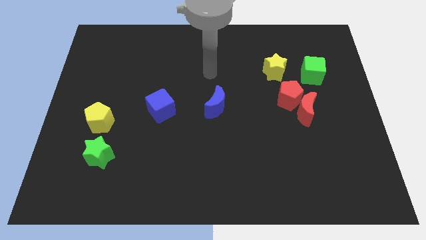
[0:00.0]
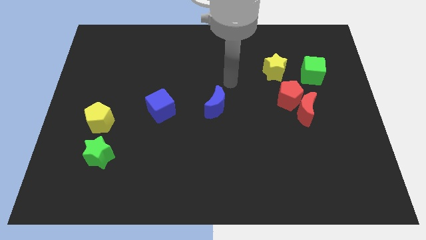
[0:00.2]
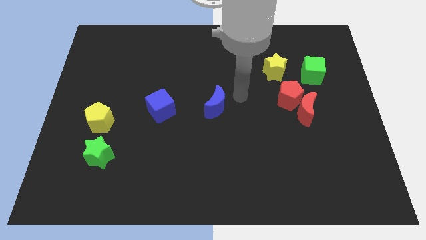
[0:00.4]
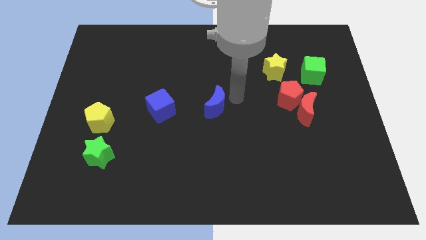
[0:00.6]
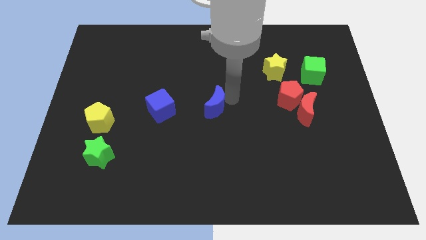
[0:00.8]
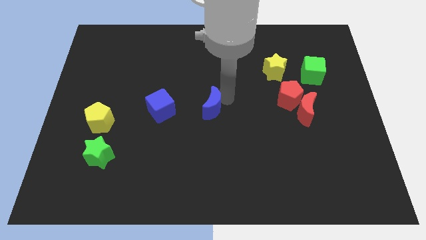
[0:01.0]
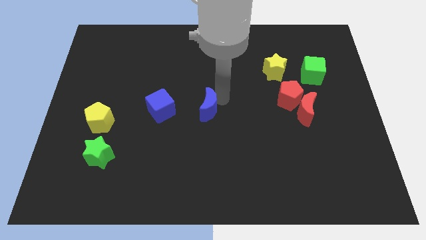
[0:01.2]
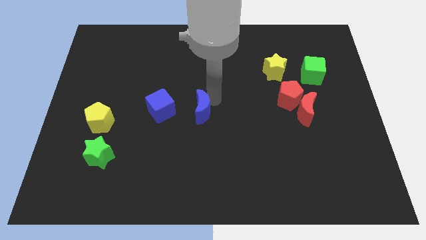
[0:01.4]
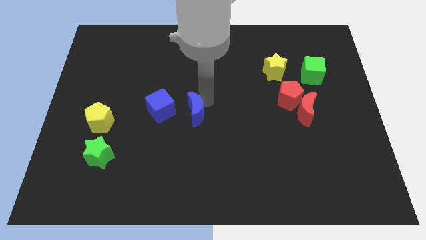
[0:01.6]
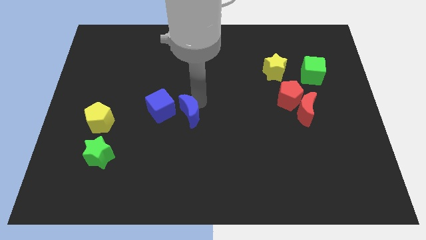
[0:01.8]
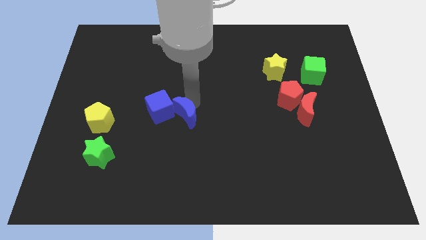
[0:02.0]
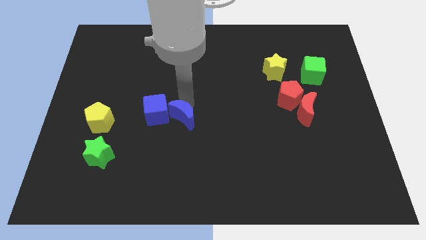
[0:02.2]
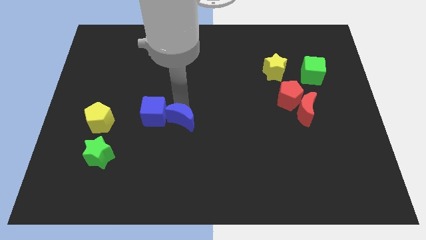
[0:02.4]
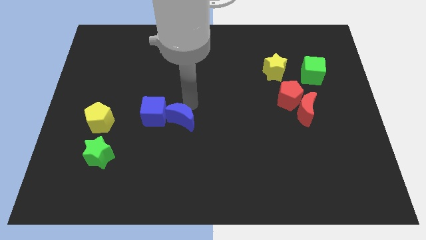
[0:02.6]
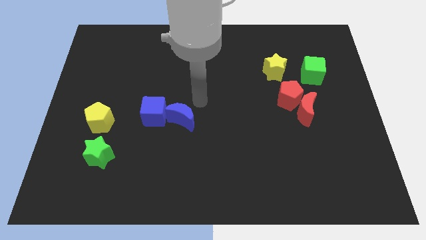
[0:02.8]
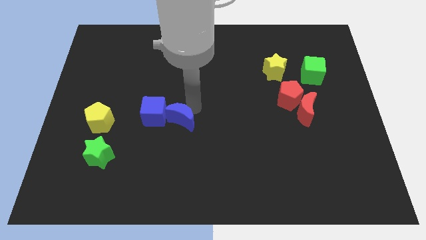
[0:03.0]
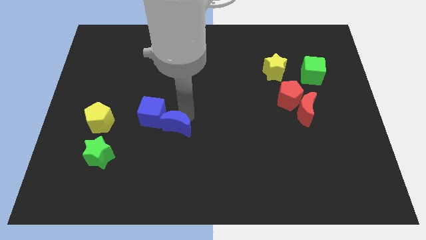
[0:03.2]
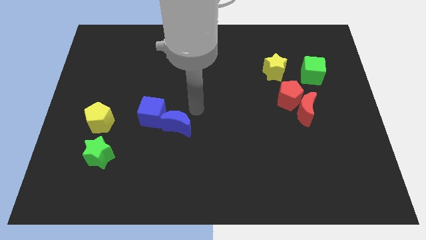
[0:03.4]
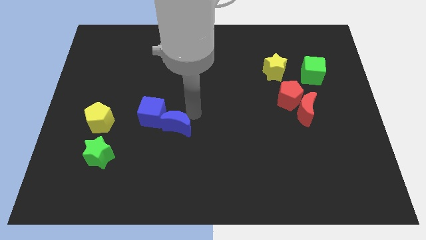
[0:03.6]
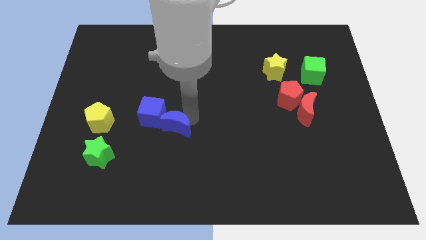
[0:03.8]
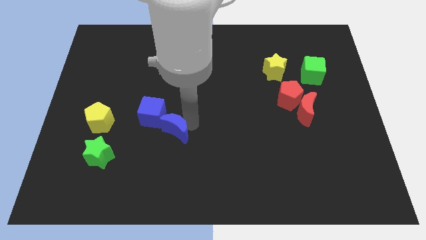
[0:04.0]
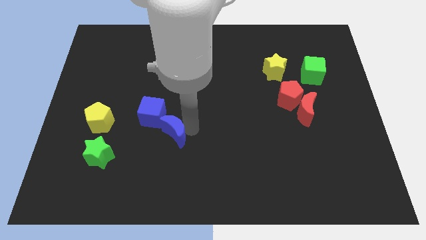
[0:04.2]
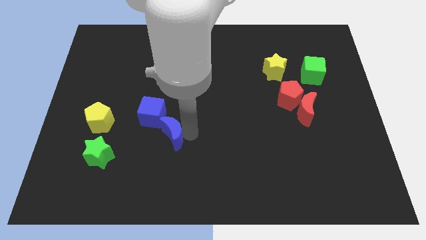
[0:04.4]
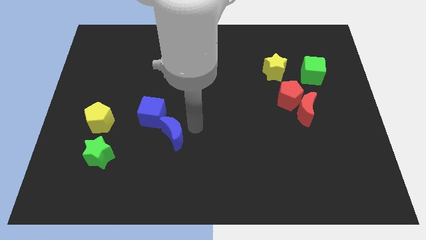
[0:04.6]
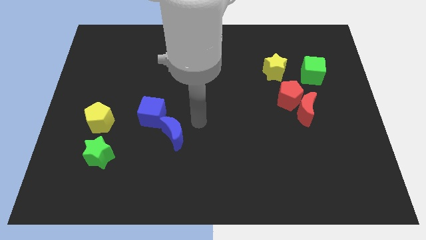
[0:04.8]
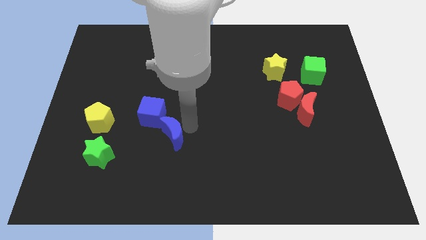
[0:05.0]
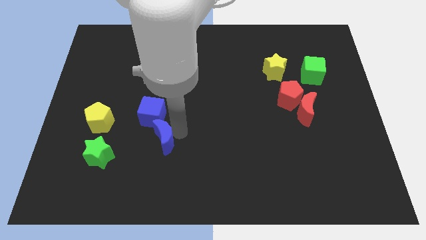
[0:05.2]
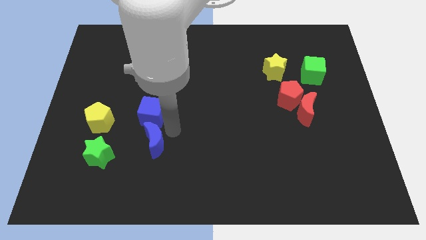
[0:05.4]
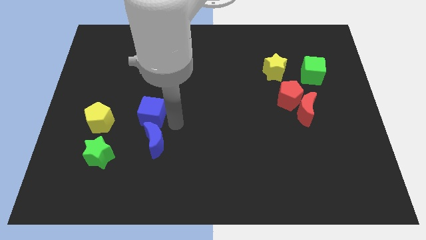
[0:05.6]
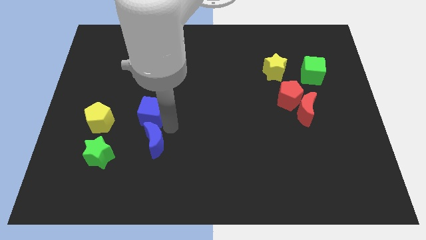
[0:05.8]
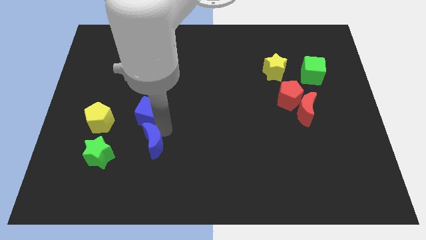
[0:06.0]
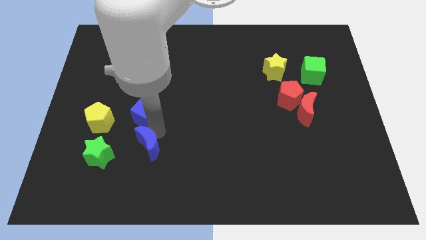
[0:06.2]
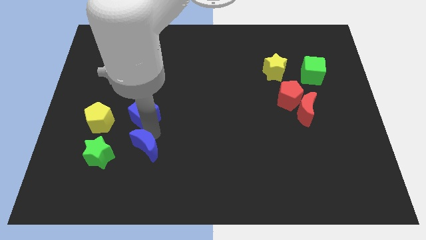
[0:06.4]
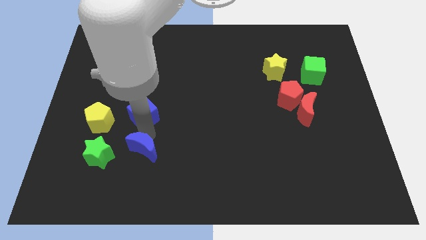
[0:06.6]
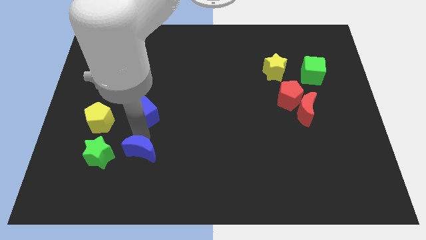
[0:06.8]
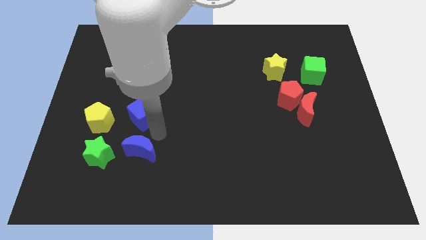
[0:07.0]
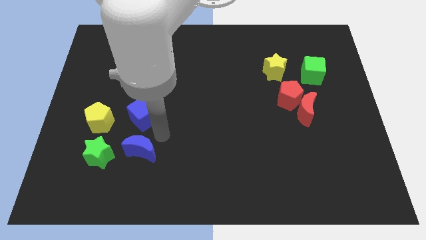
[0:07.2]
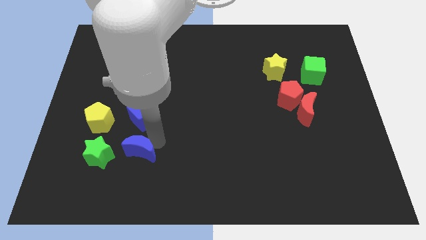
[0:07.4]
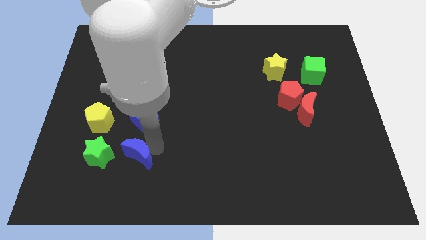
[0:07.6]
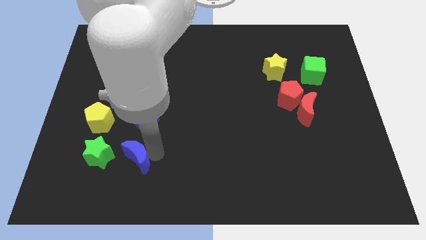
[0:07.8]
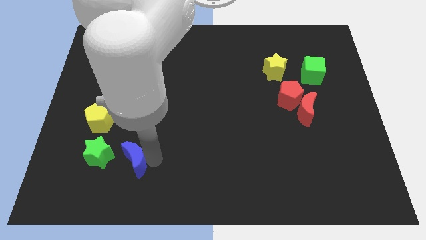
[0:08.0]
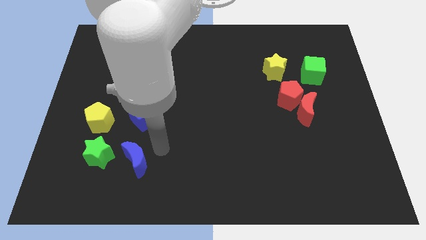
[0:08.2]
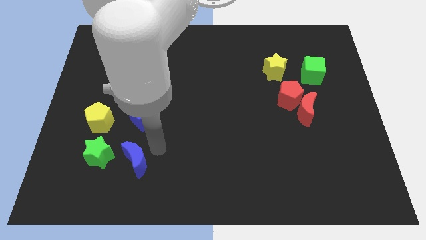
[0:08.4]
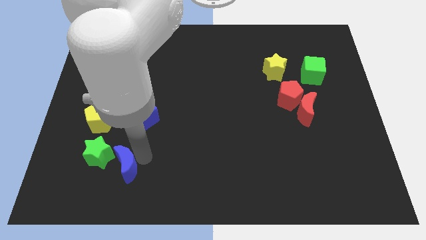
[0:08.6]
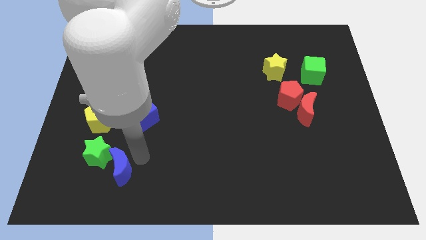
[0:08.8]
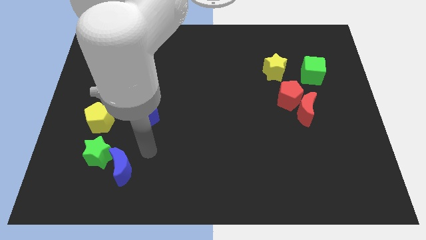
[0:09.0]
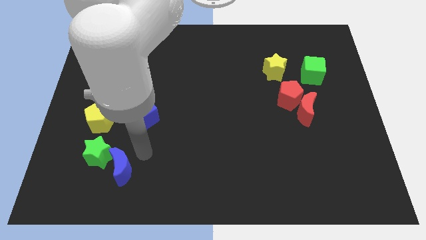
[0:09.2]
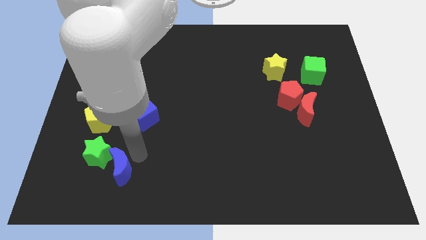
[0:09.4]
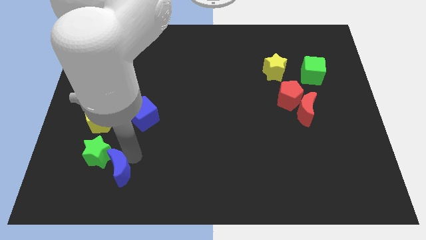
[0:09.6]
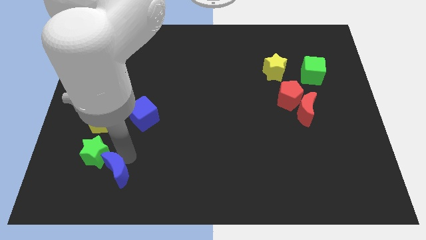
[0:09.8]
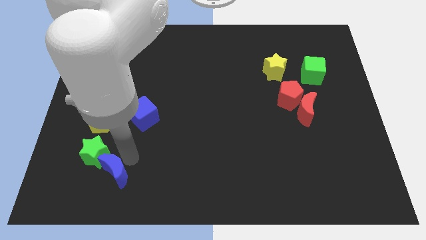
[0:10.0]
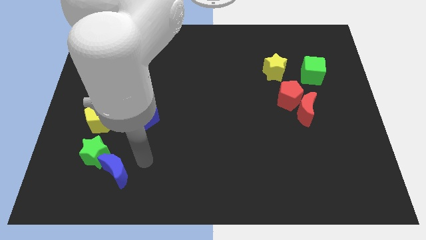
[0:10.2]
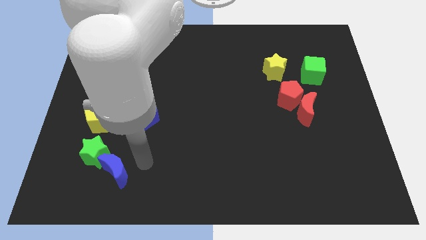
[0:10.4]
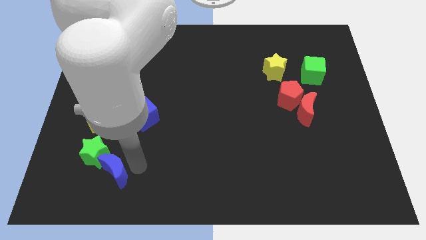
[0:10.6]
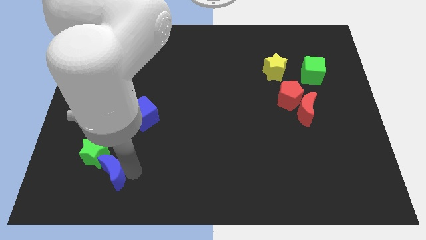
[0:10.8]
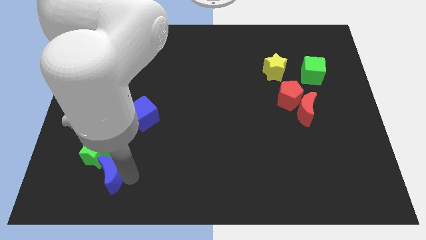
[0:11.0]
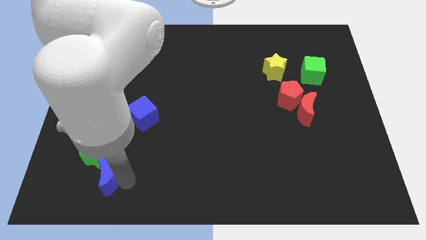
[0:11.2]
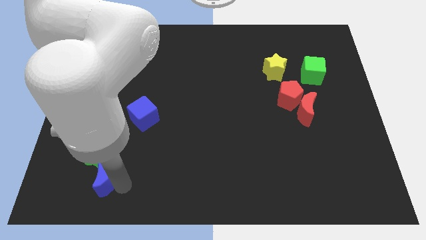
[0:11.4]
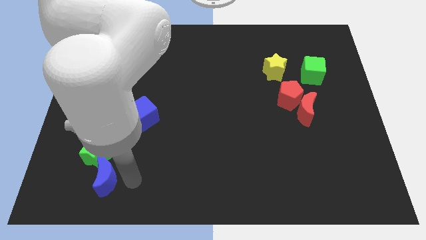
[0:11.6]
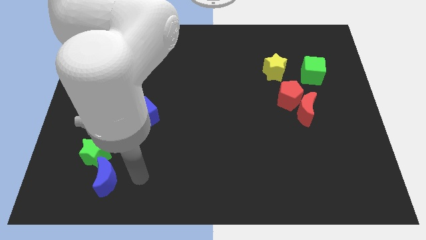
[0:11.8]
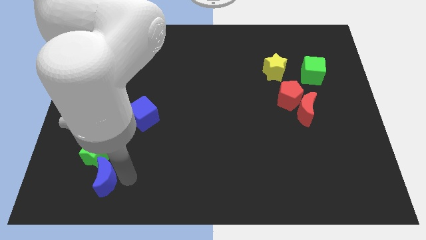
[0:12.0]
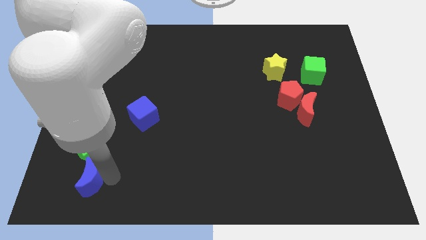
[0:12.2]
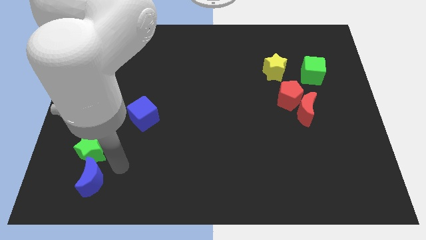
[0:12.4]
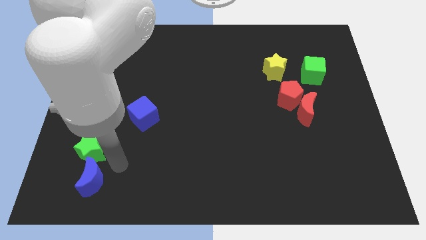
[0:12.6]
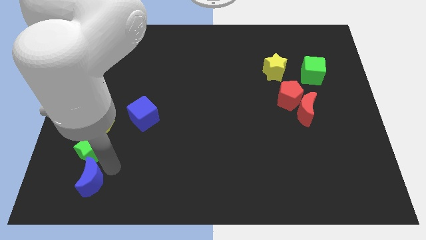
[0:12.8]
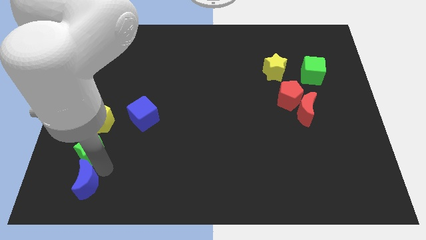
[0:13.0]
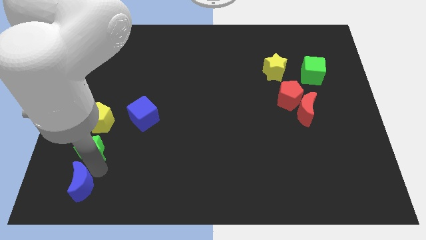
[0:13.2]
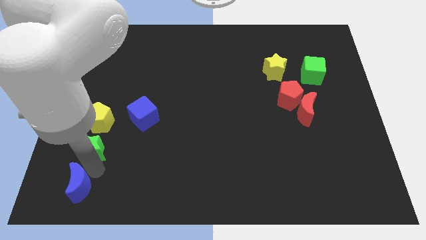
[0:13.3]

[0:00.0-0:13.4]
move the blue moon to the bottom left of the board
